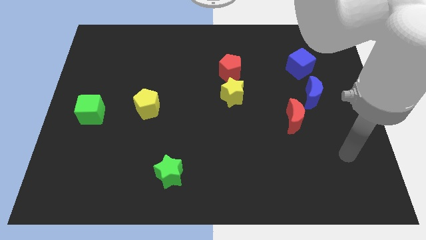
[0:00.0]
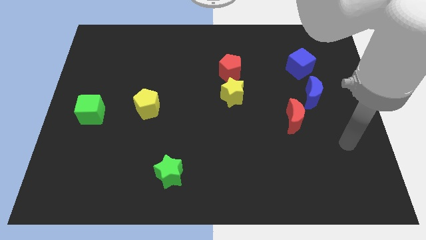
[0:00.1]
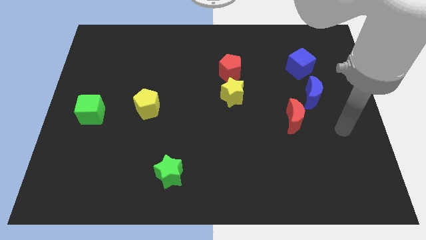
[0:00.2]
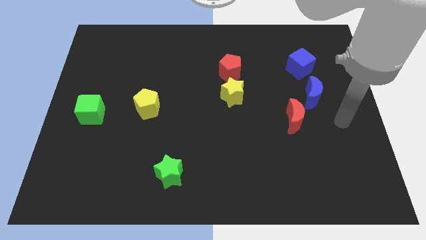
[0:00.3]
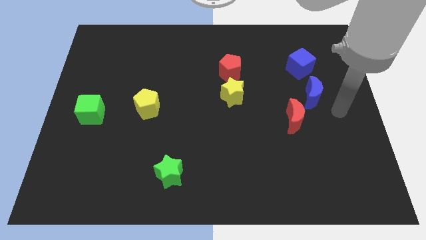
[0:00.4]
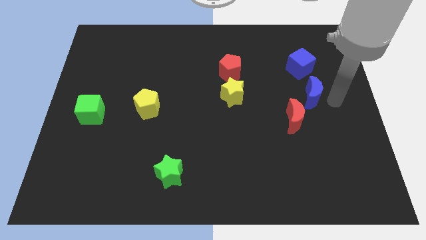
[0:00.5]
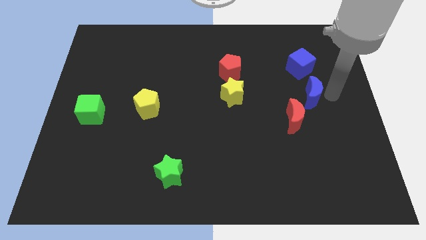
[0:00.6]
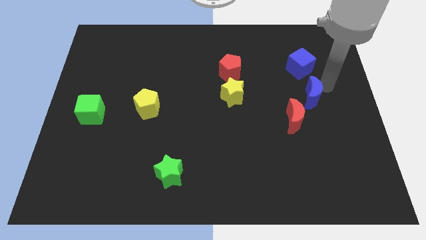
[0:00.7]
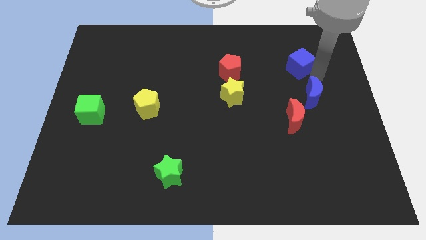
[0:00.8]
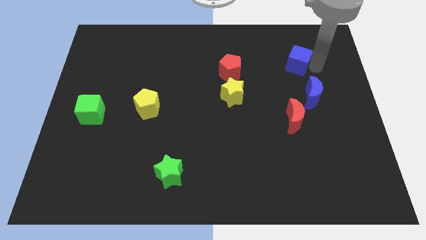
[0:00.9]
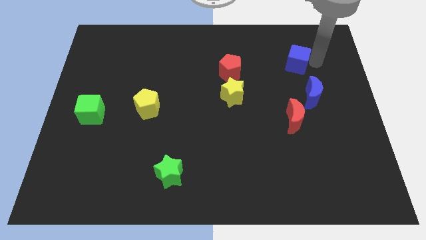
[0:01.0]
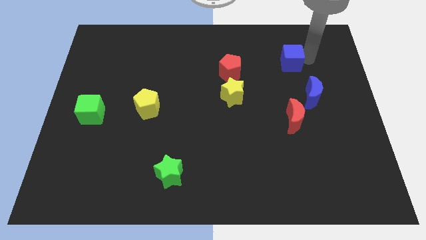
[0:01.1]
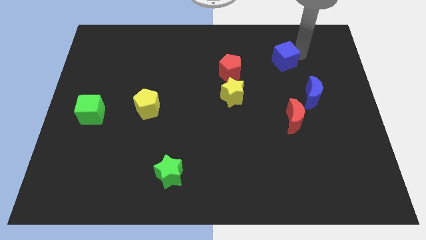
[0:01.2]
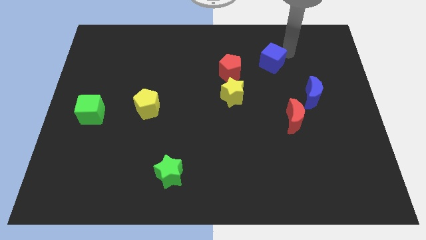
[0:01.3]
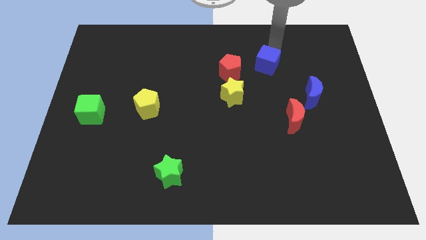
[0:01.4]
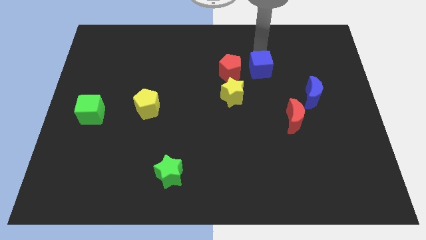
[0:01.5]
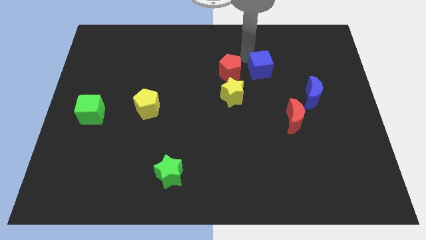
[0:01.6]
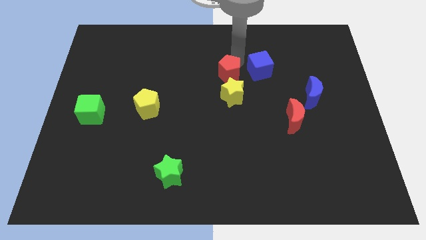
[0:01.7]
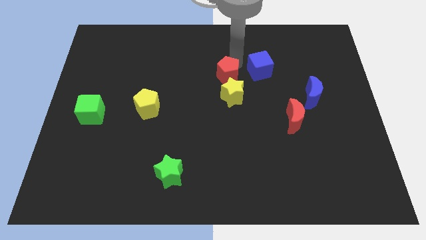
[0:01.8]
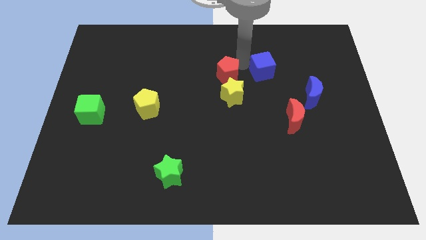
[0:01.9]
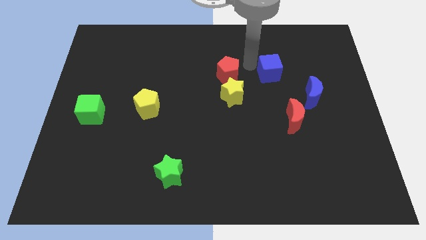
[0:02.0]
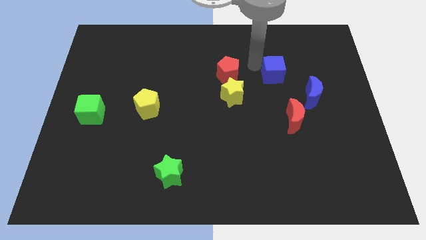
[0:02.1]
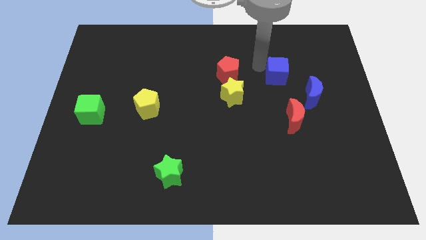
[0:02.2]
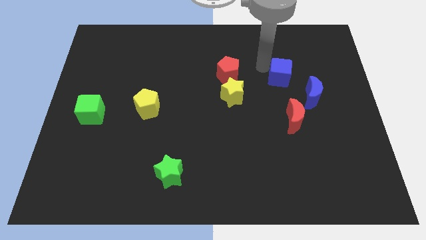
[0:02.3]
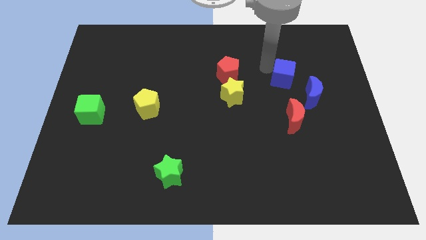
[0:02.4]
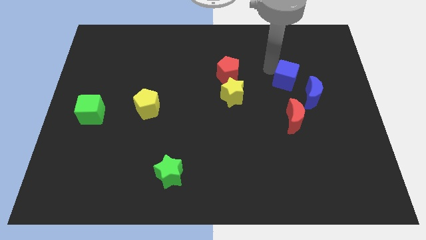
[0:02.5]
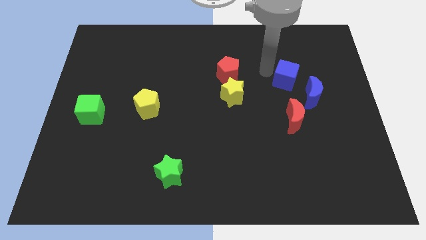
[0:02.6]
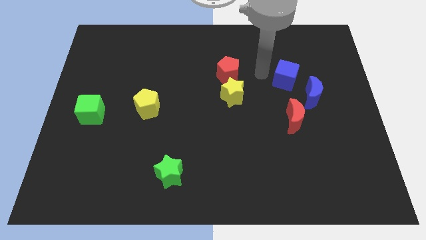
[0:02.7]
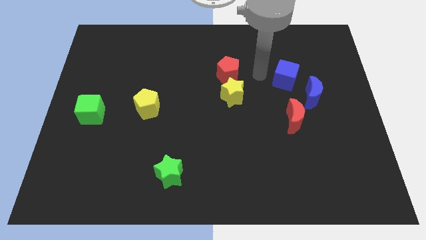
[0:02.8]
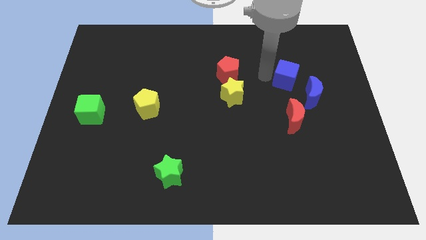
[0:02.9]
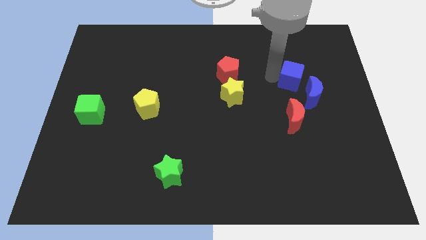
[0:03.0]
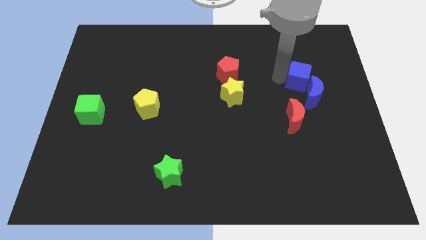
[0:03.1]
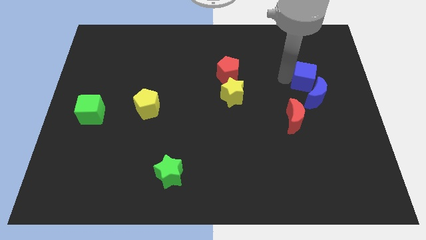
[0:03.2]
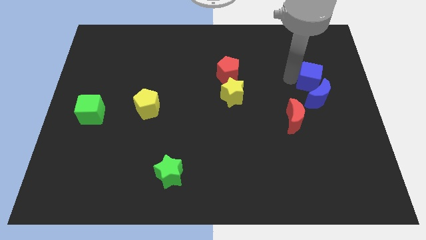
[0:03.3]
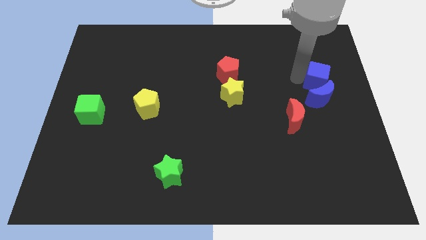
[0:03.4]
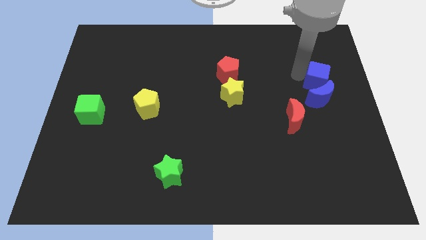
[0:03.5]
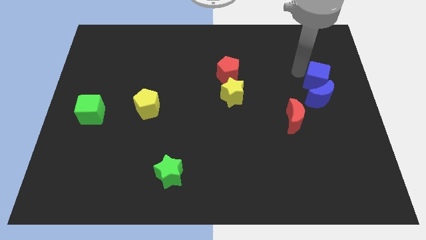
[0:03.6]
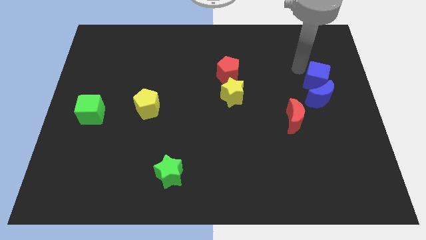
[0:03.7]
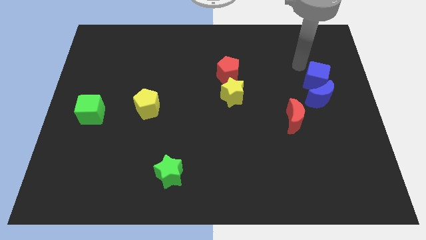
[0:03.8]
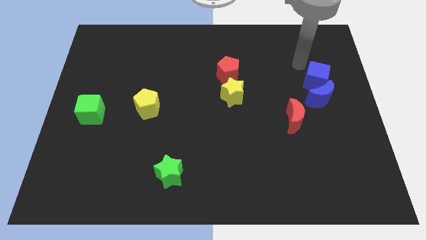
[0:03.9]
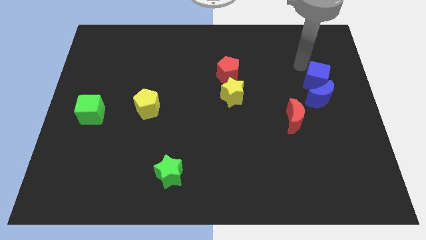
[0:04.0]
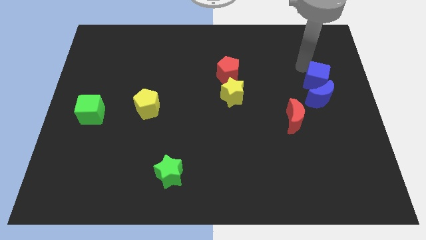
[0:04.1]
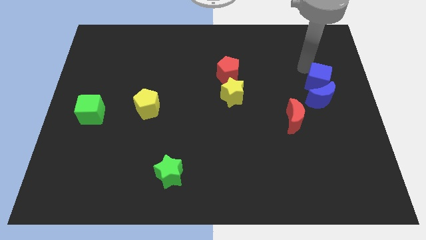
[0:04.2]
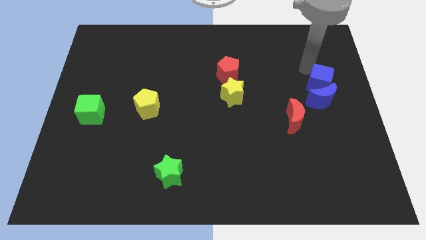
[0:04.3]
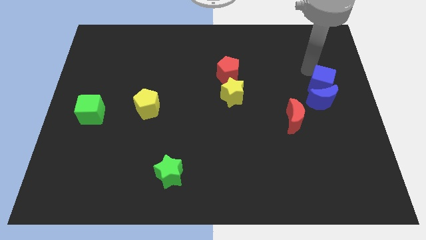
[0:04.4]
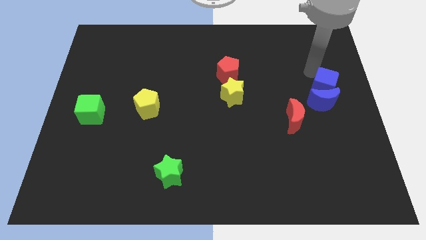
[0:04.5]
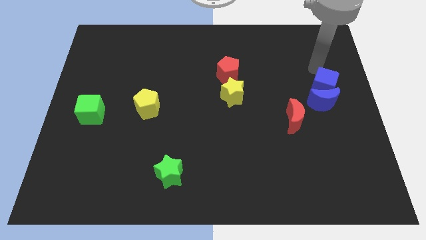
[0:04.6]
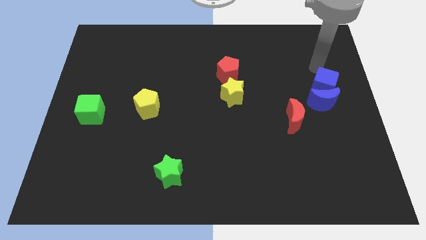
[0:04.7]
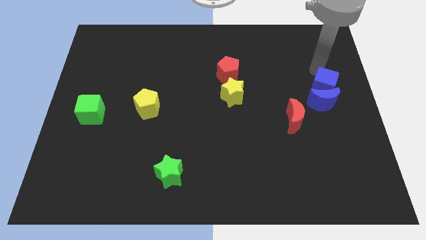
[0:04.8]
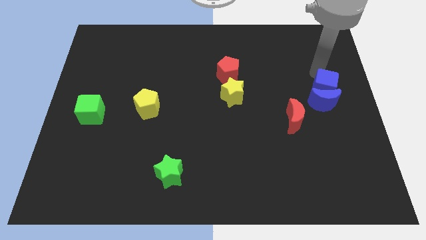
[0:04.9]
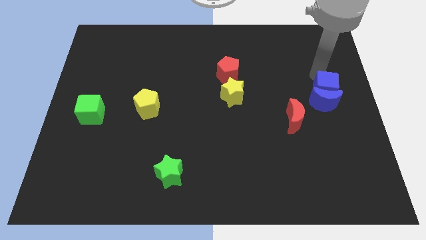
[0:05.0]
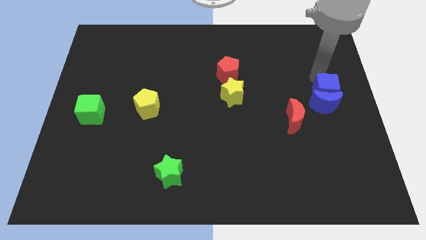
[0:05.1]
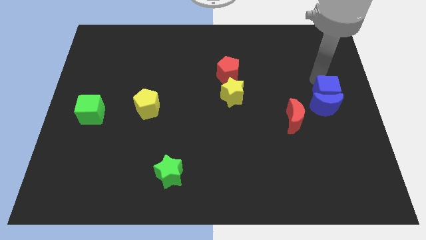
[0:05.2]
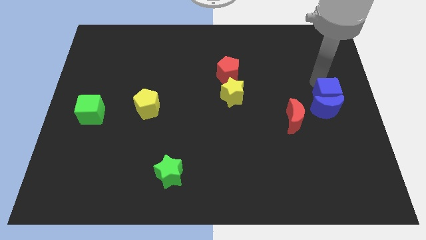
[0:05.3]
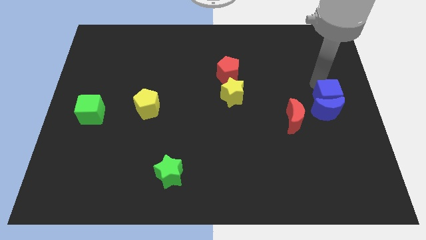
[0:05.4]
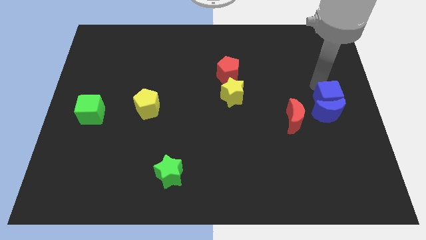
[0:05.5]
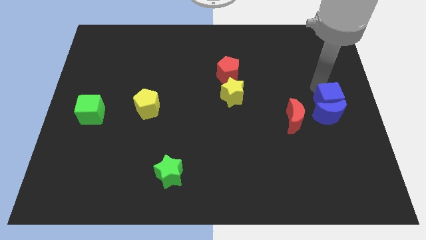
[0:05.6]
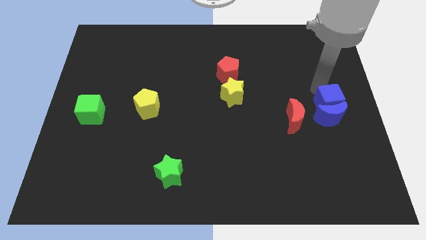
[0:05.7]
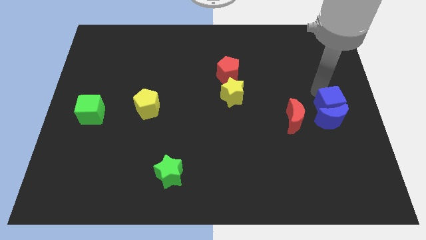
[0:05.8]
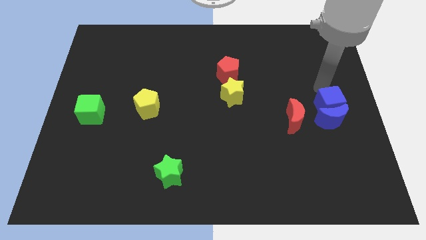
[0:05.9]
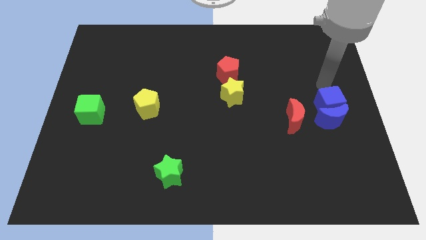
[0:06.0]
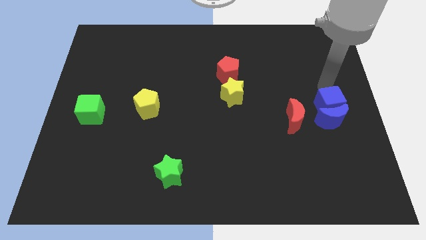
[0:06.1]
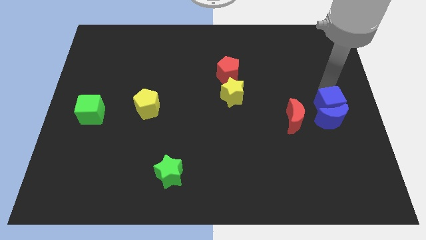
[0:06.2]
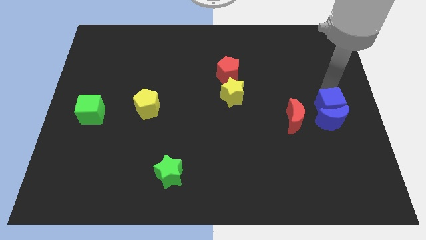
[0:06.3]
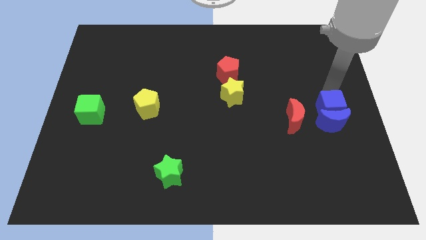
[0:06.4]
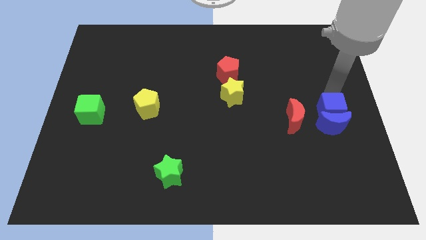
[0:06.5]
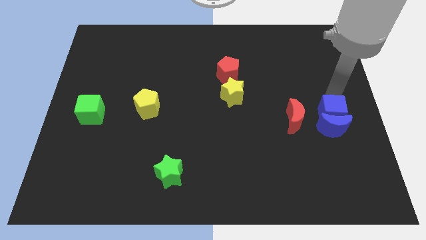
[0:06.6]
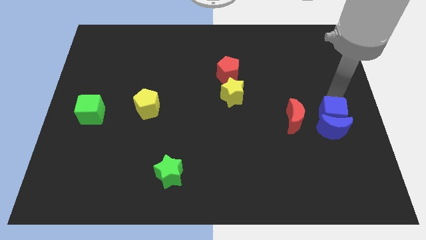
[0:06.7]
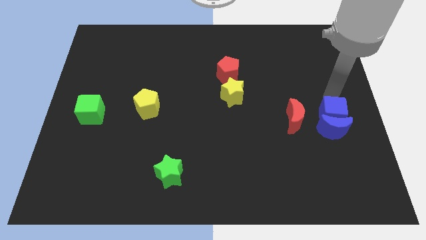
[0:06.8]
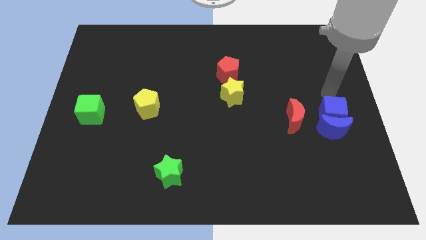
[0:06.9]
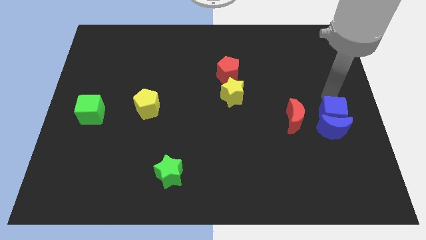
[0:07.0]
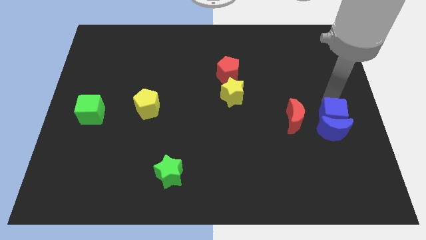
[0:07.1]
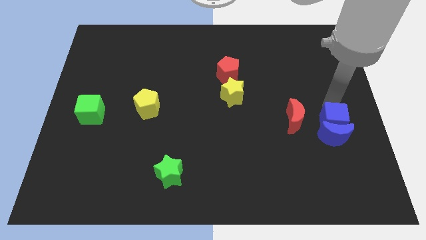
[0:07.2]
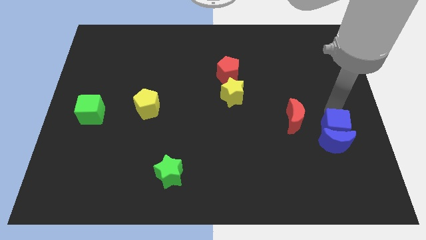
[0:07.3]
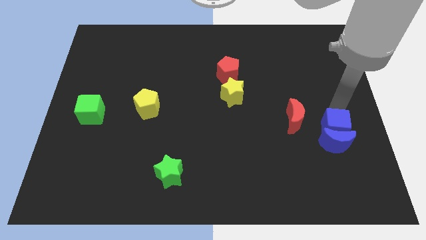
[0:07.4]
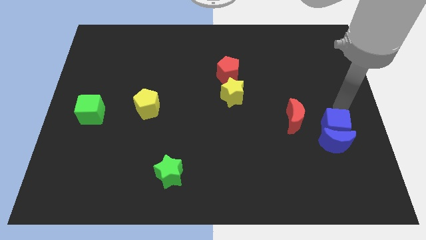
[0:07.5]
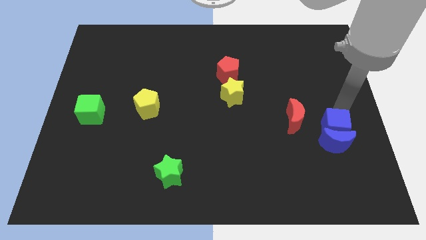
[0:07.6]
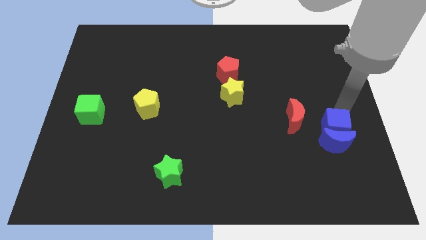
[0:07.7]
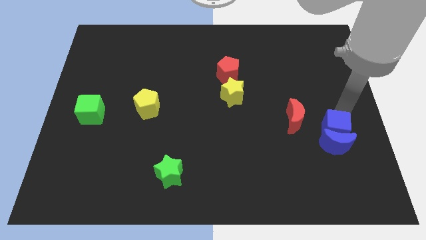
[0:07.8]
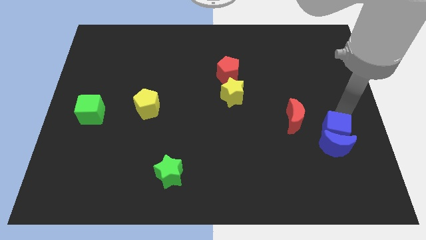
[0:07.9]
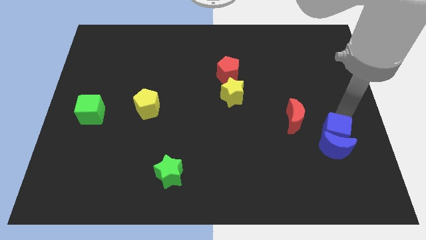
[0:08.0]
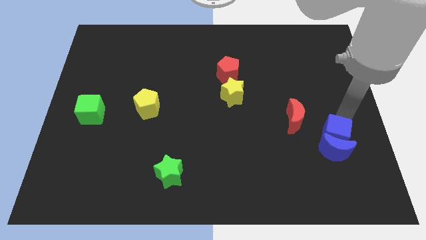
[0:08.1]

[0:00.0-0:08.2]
move the blue cube downwards

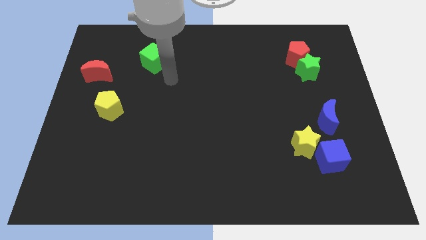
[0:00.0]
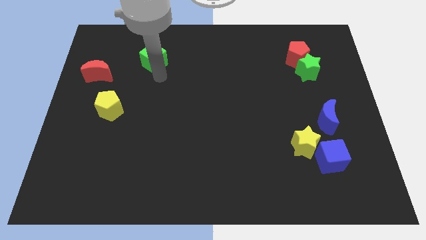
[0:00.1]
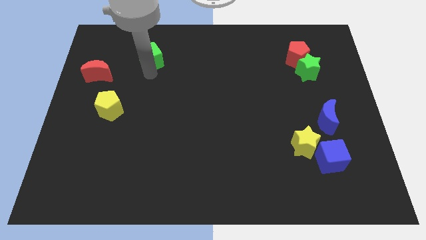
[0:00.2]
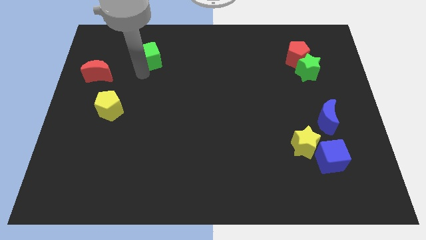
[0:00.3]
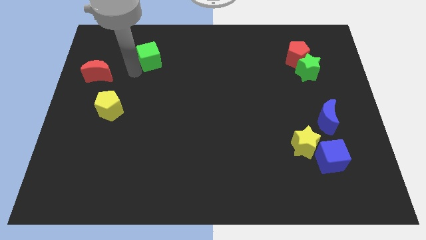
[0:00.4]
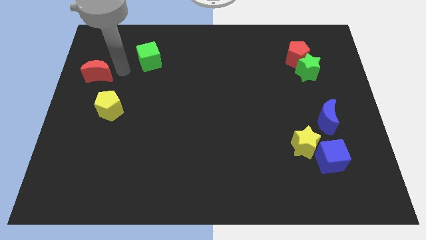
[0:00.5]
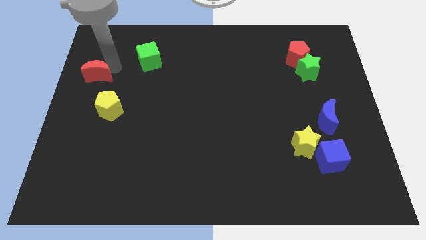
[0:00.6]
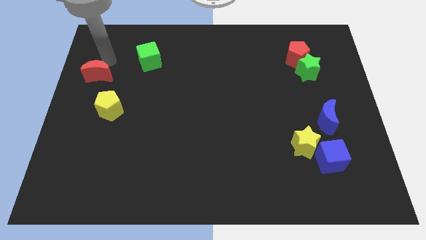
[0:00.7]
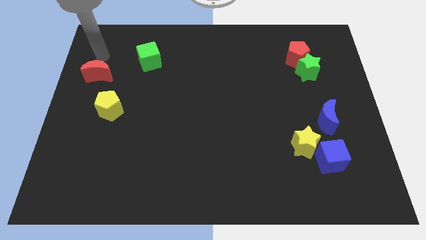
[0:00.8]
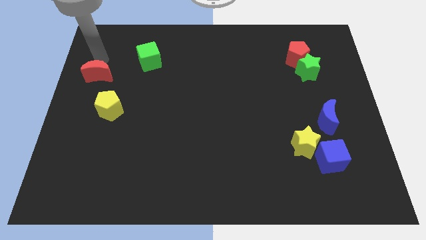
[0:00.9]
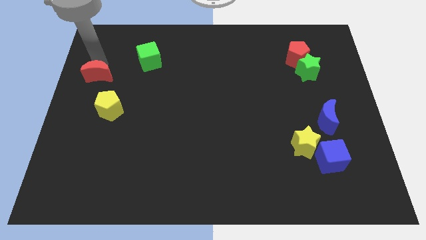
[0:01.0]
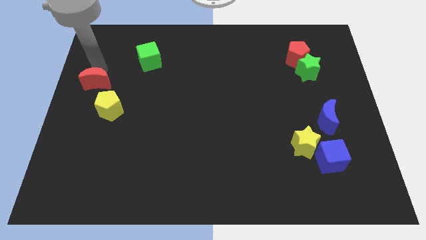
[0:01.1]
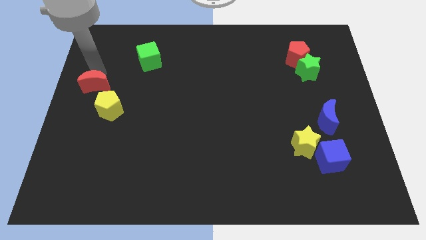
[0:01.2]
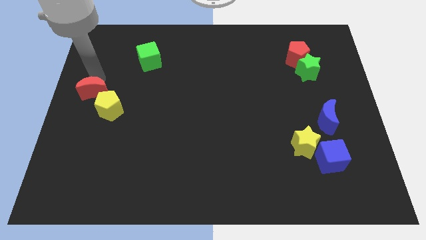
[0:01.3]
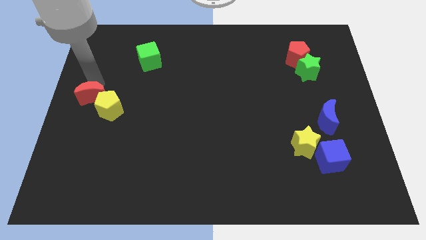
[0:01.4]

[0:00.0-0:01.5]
push the red moon slightly downwards
